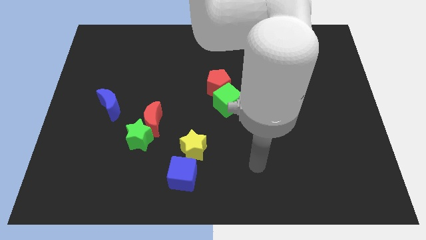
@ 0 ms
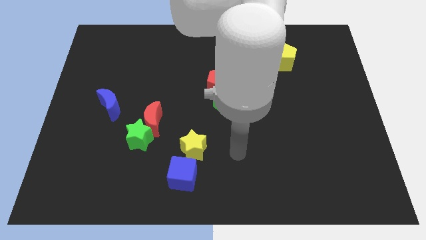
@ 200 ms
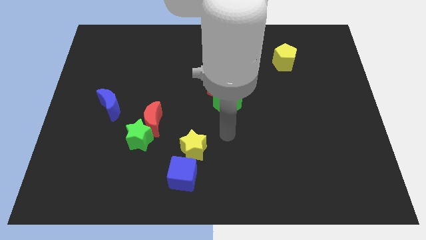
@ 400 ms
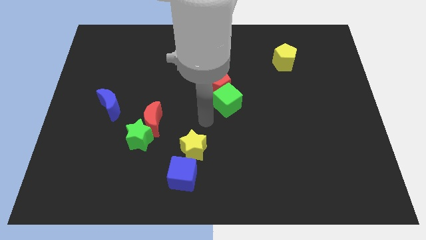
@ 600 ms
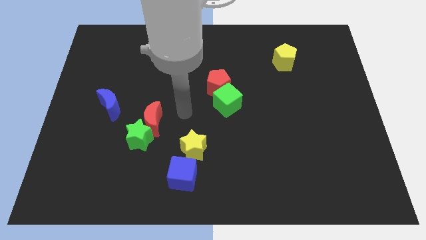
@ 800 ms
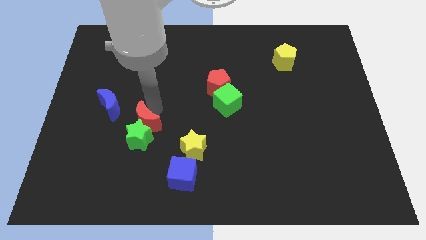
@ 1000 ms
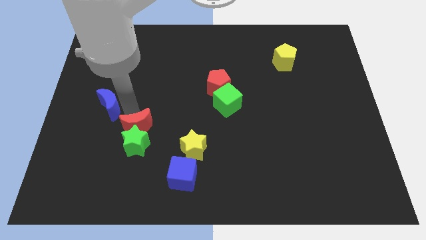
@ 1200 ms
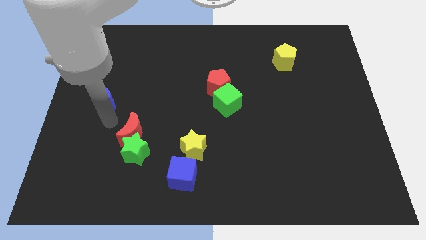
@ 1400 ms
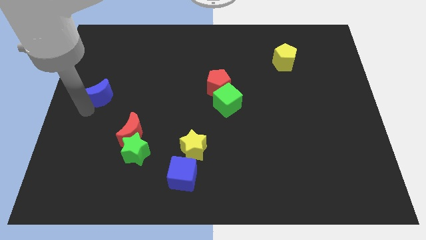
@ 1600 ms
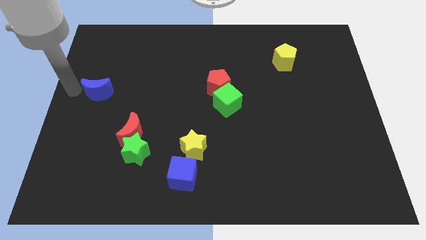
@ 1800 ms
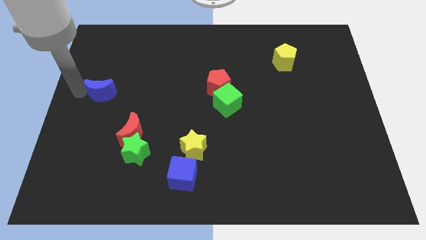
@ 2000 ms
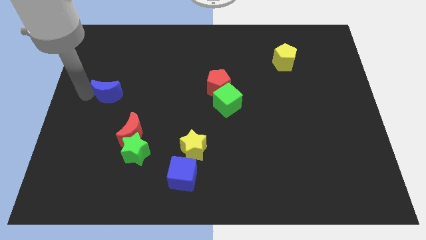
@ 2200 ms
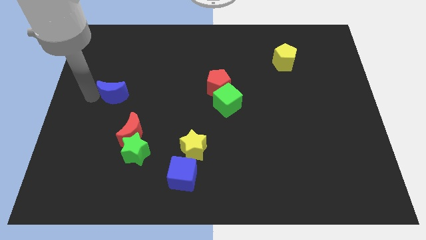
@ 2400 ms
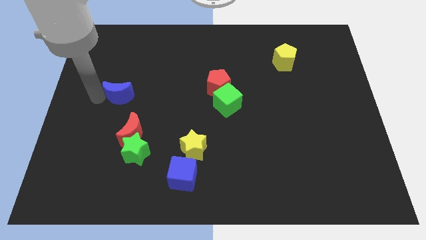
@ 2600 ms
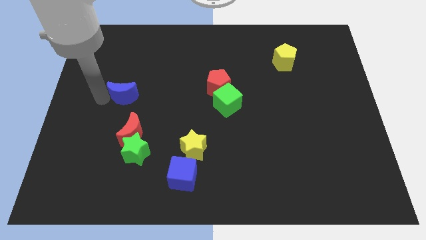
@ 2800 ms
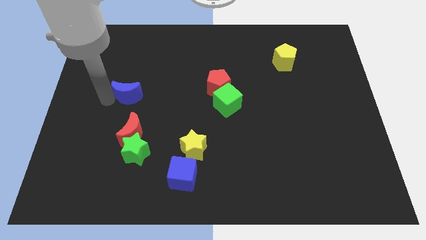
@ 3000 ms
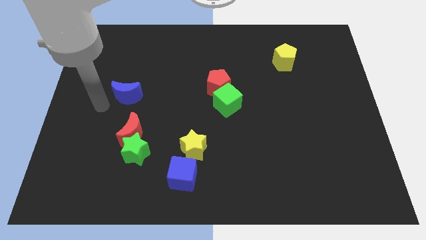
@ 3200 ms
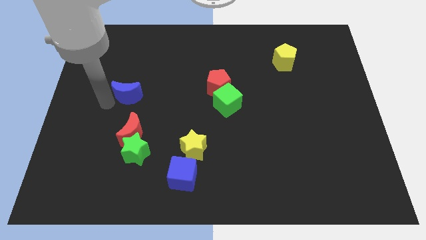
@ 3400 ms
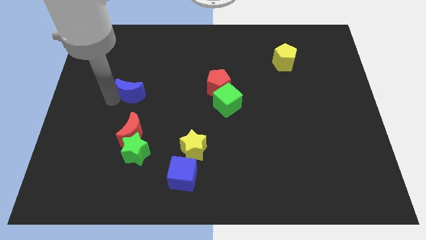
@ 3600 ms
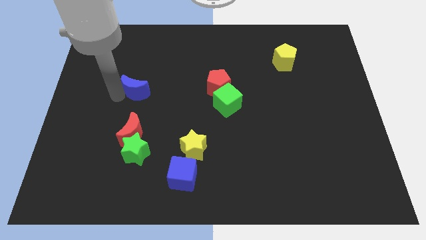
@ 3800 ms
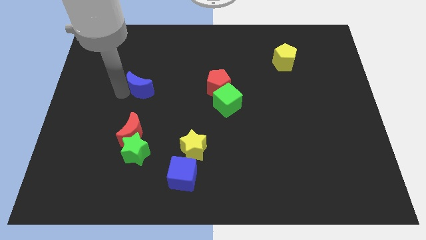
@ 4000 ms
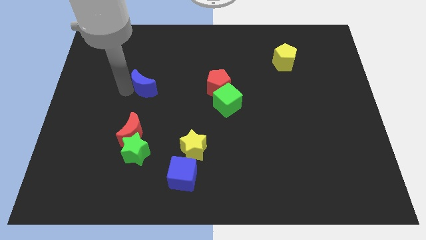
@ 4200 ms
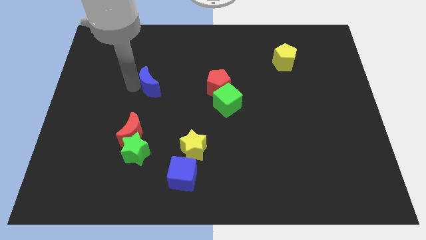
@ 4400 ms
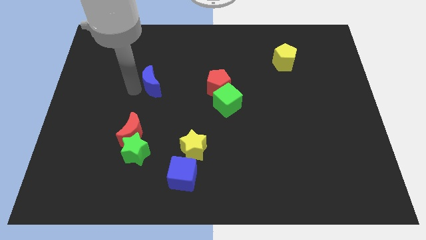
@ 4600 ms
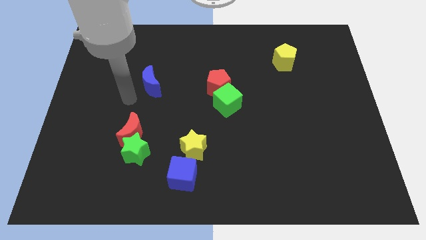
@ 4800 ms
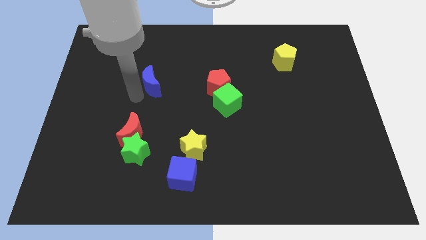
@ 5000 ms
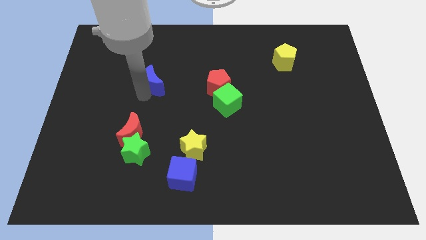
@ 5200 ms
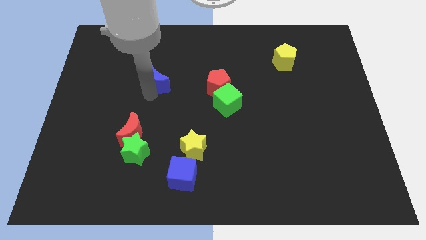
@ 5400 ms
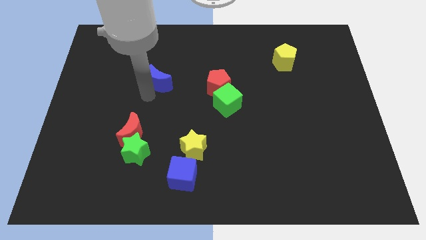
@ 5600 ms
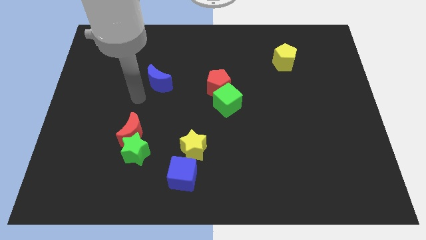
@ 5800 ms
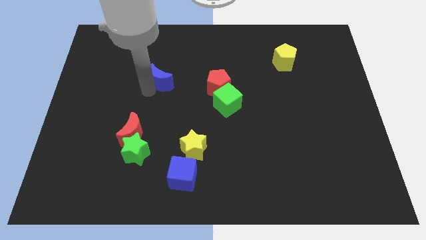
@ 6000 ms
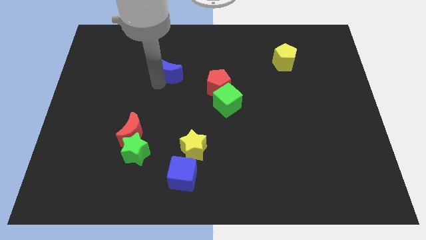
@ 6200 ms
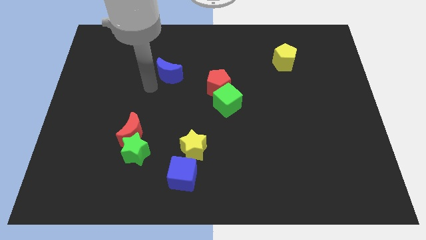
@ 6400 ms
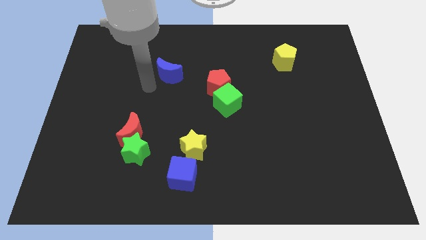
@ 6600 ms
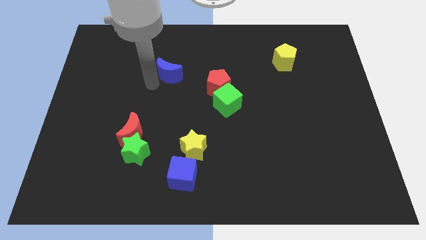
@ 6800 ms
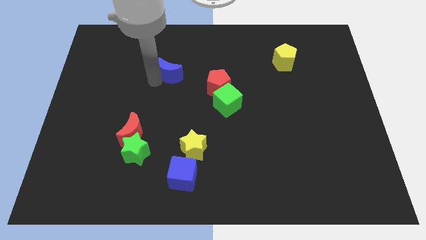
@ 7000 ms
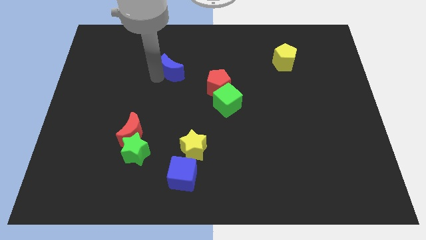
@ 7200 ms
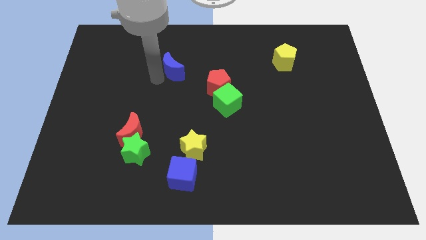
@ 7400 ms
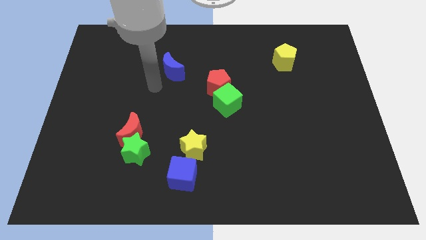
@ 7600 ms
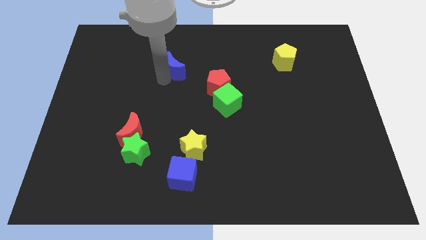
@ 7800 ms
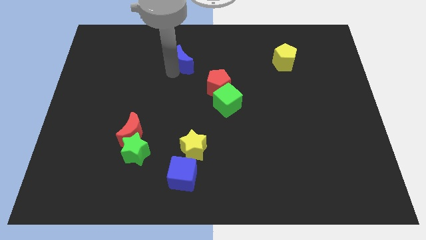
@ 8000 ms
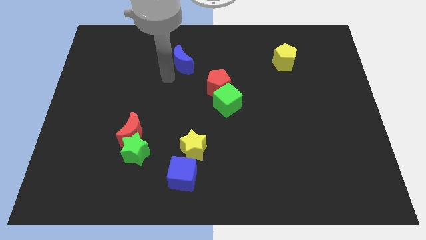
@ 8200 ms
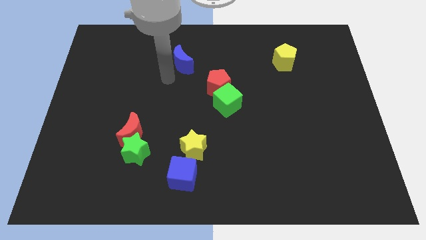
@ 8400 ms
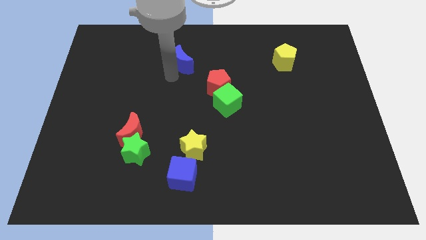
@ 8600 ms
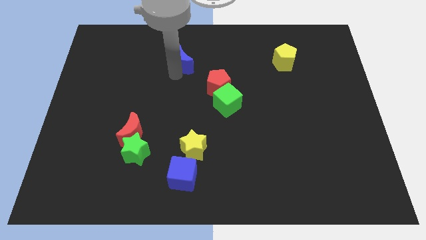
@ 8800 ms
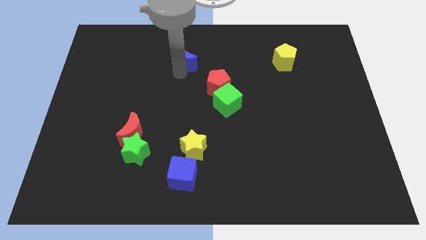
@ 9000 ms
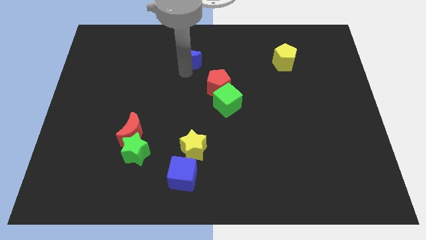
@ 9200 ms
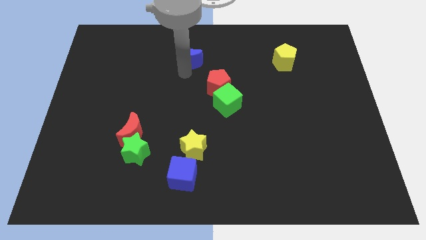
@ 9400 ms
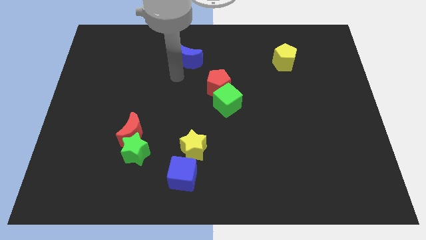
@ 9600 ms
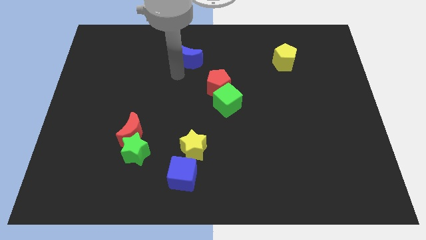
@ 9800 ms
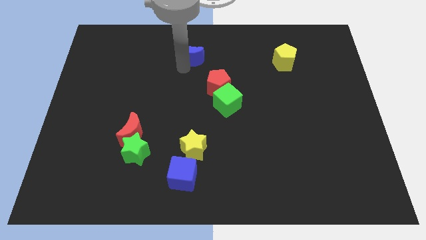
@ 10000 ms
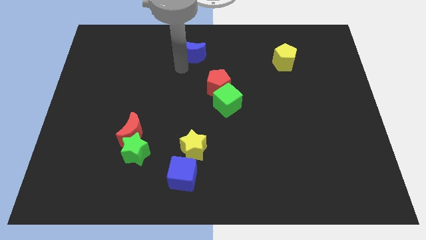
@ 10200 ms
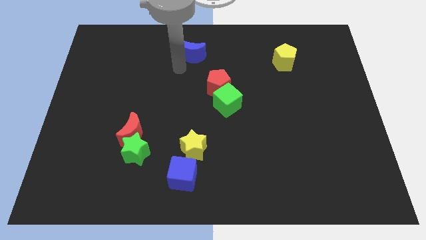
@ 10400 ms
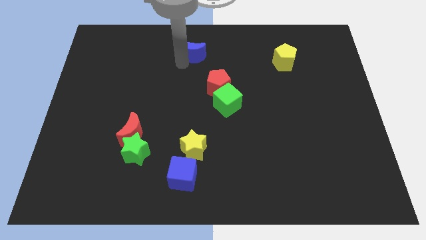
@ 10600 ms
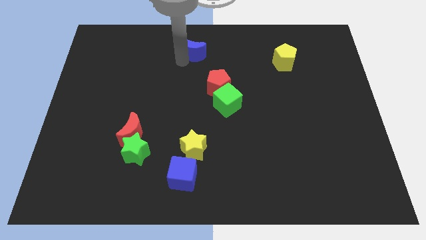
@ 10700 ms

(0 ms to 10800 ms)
put the blue moon to the towards your base

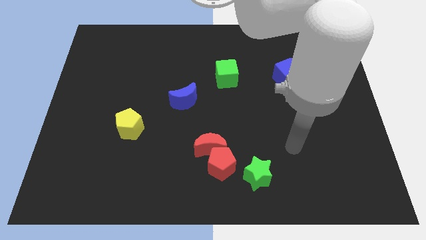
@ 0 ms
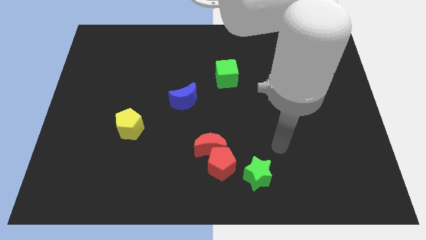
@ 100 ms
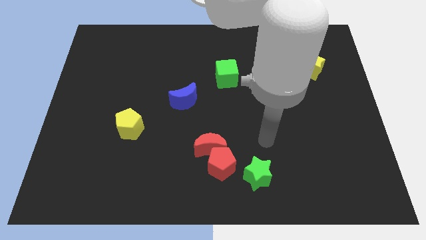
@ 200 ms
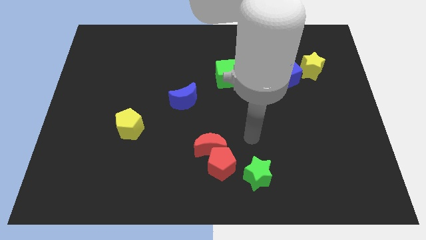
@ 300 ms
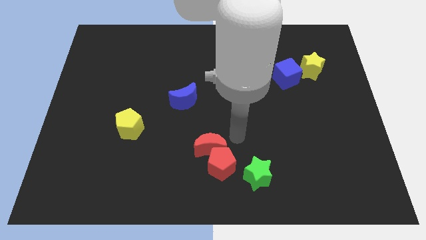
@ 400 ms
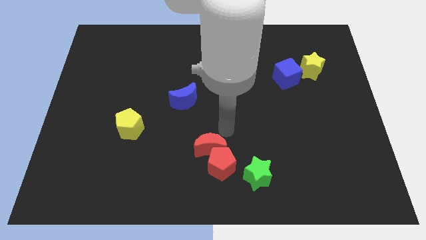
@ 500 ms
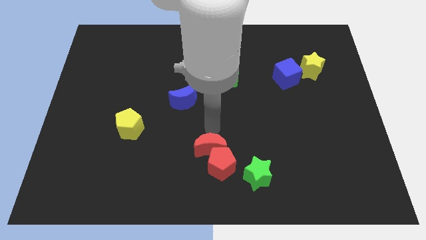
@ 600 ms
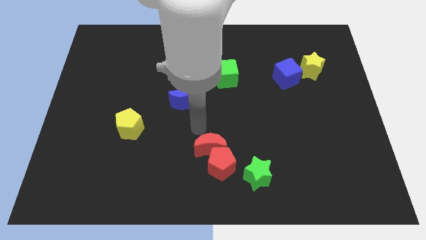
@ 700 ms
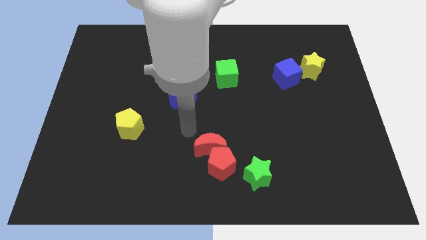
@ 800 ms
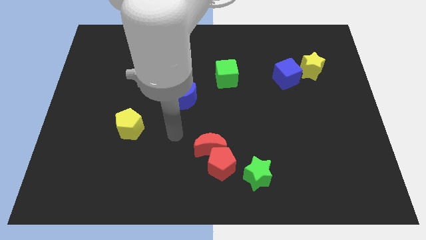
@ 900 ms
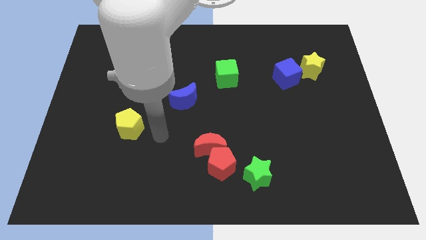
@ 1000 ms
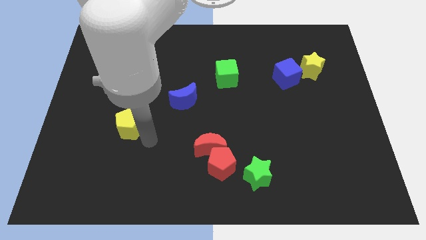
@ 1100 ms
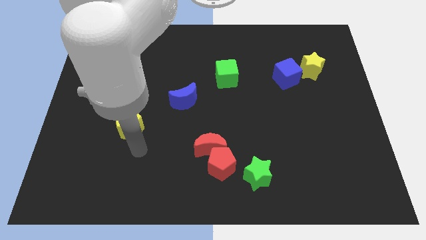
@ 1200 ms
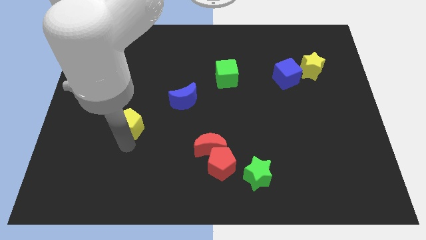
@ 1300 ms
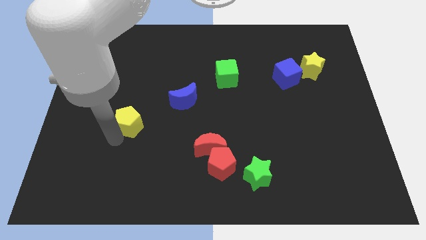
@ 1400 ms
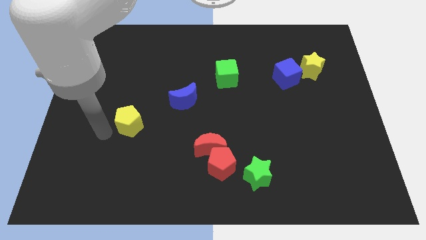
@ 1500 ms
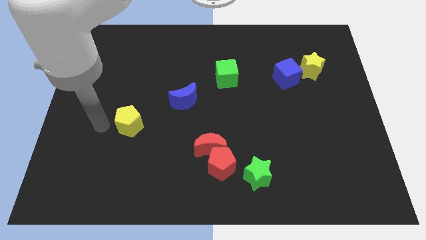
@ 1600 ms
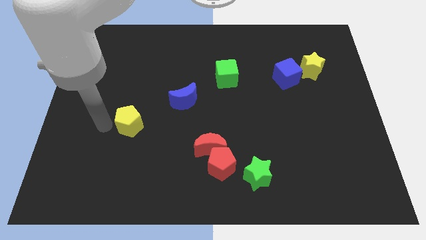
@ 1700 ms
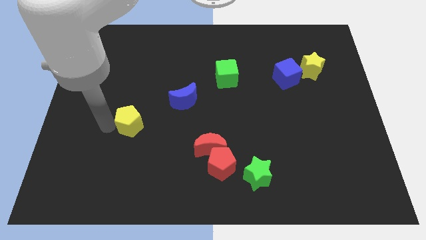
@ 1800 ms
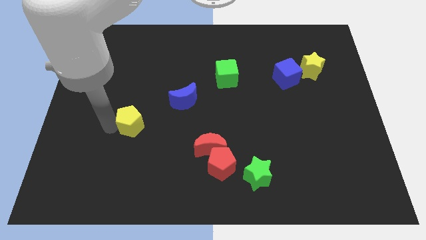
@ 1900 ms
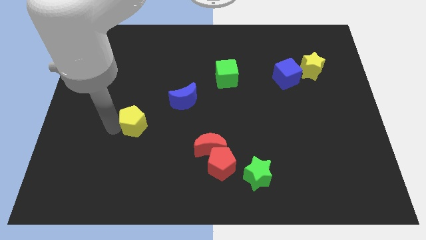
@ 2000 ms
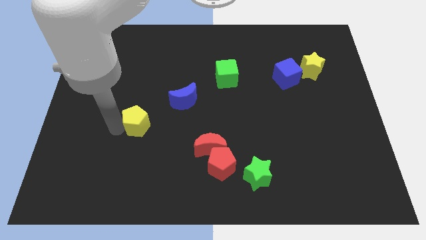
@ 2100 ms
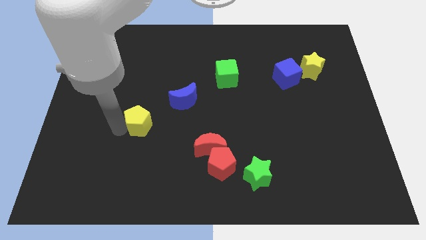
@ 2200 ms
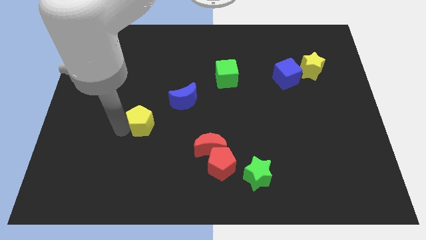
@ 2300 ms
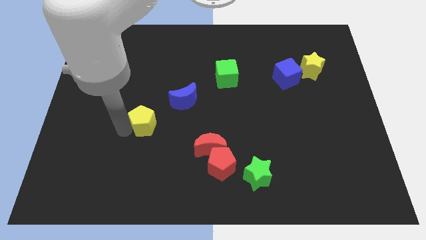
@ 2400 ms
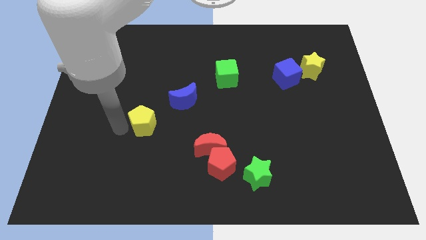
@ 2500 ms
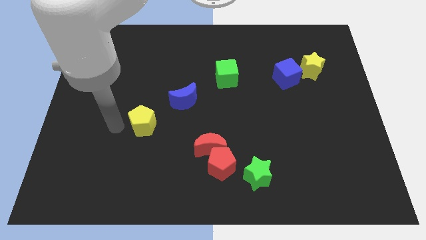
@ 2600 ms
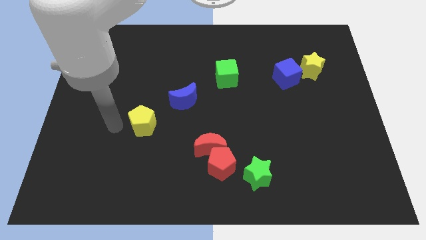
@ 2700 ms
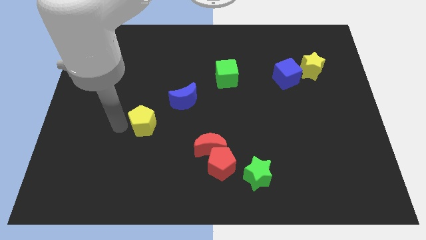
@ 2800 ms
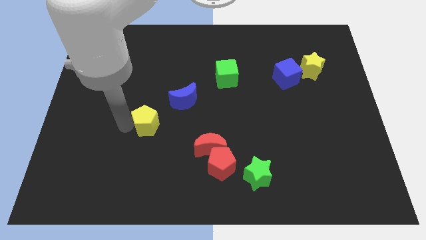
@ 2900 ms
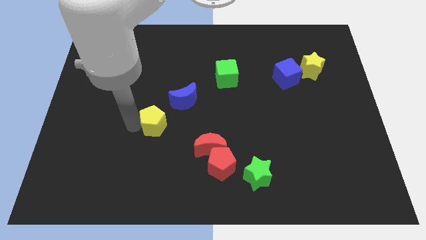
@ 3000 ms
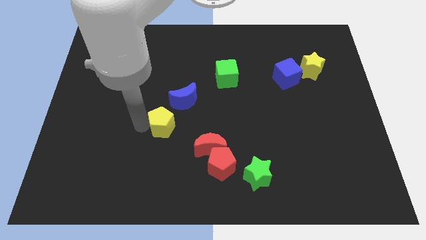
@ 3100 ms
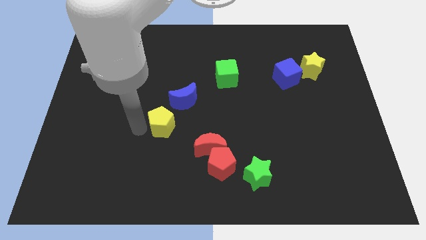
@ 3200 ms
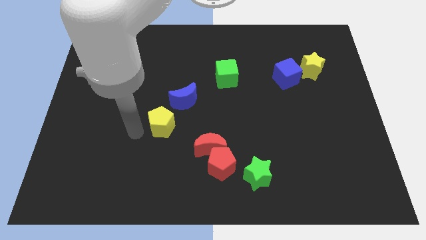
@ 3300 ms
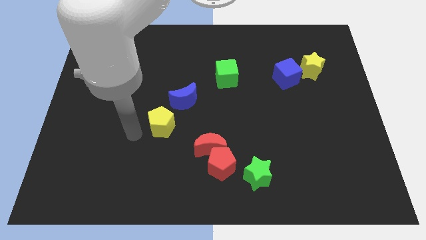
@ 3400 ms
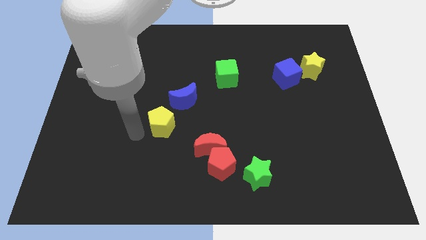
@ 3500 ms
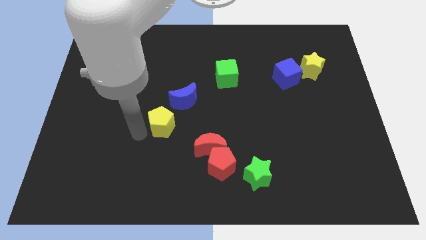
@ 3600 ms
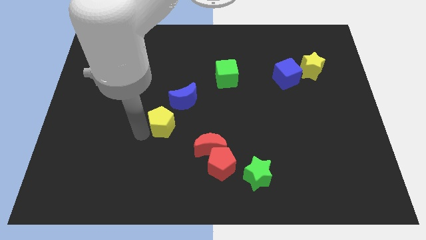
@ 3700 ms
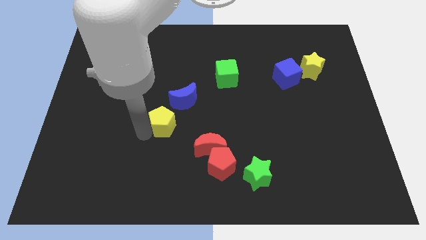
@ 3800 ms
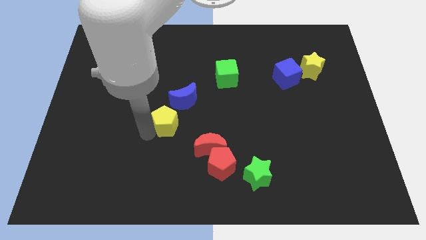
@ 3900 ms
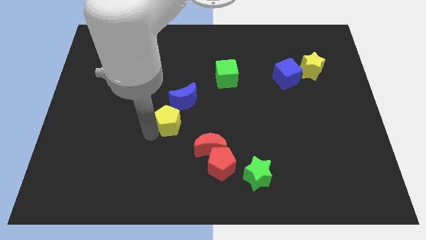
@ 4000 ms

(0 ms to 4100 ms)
push the yellow pentagon to the center of the board
